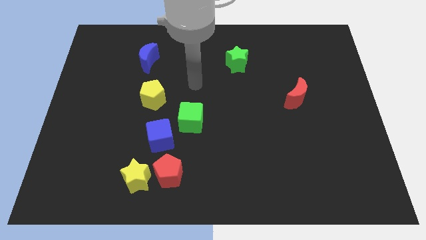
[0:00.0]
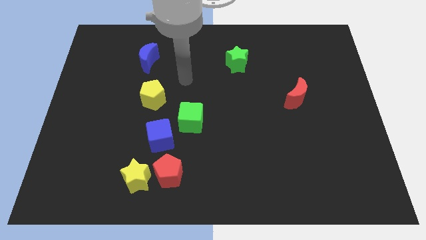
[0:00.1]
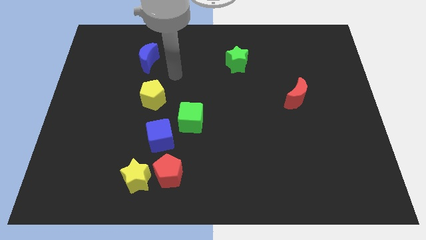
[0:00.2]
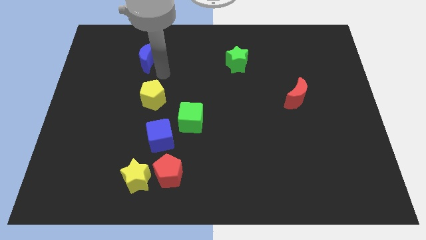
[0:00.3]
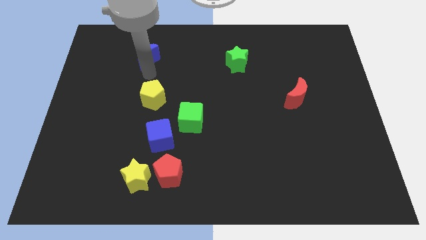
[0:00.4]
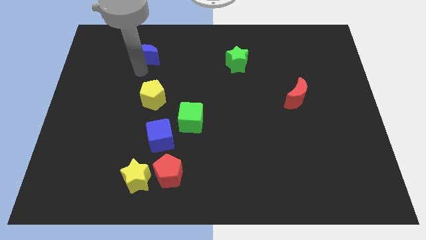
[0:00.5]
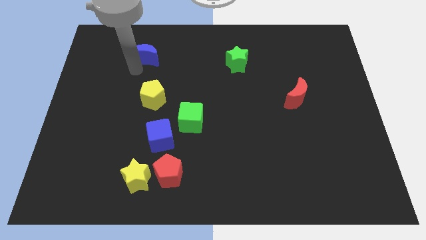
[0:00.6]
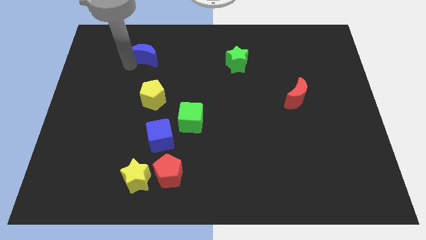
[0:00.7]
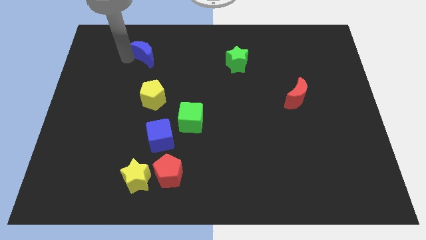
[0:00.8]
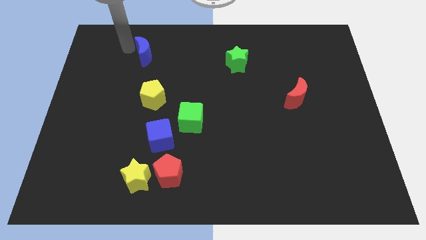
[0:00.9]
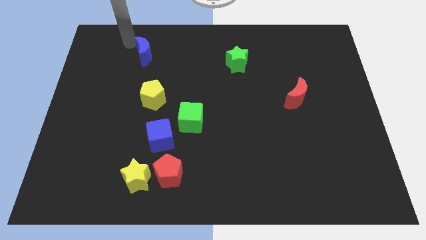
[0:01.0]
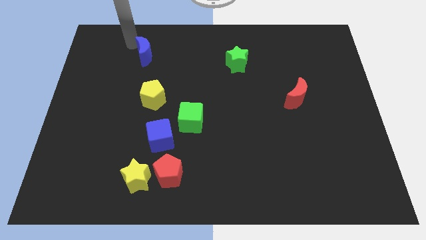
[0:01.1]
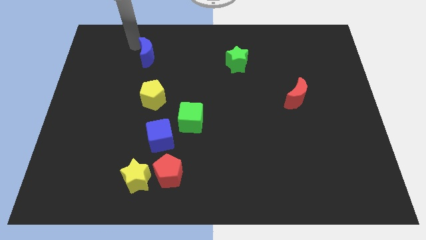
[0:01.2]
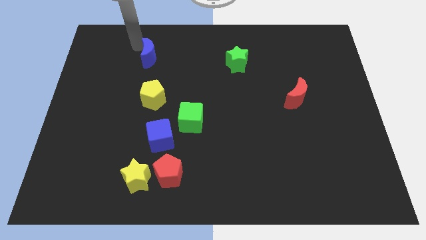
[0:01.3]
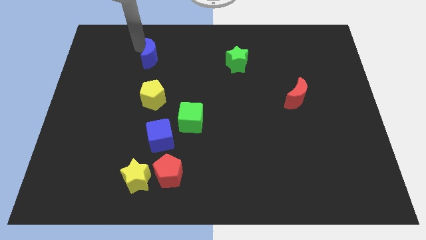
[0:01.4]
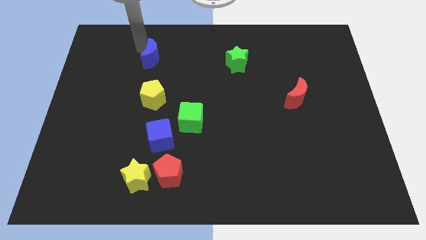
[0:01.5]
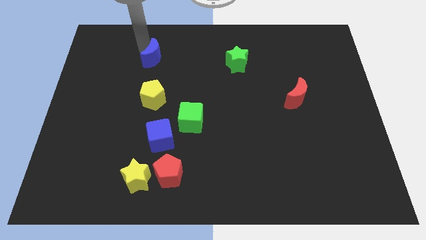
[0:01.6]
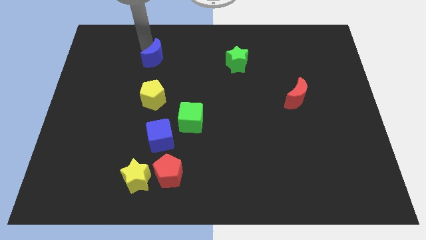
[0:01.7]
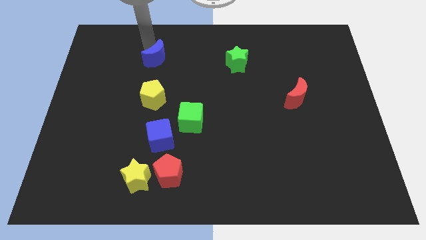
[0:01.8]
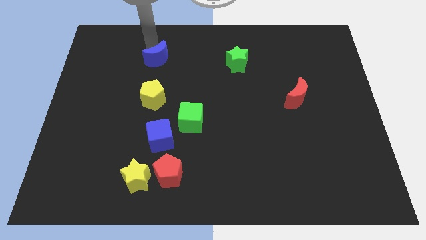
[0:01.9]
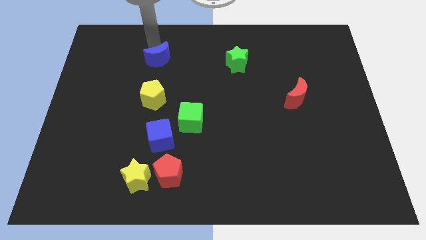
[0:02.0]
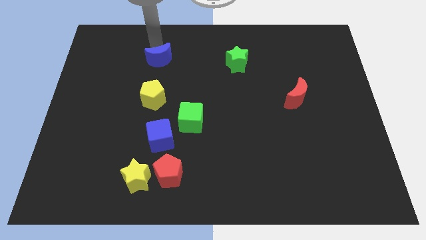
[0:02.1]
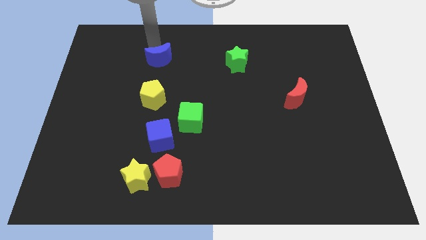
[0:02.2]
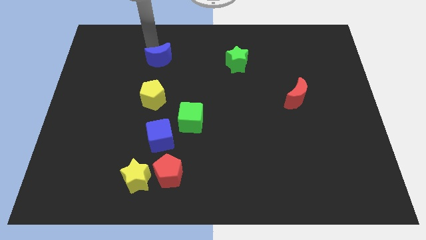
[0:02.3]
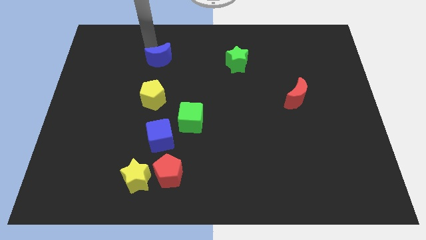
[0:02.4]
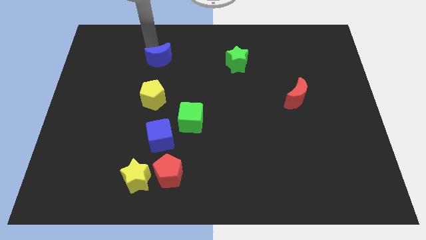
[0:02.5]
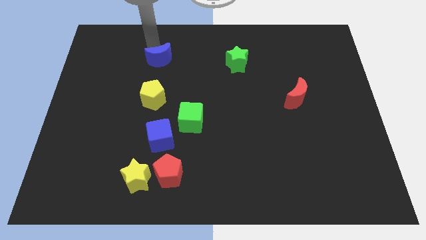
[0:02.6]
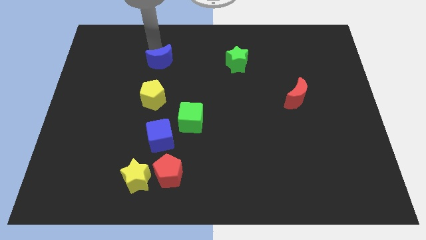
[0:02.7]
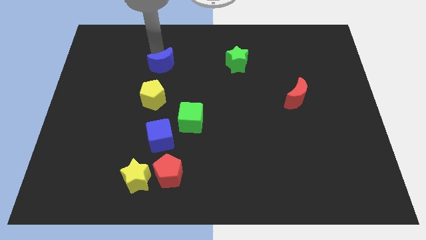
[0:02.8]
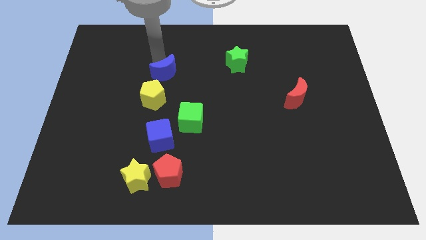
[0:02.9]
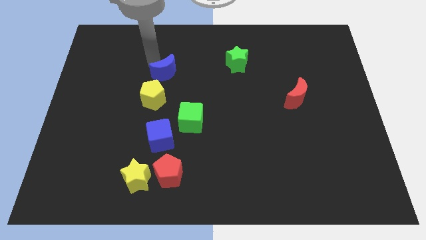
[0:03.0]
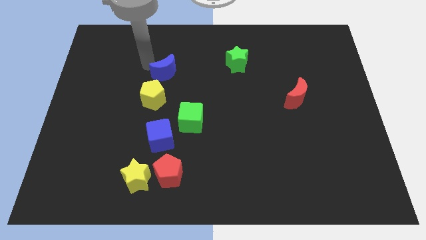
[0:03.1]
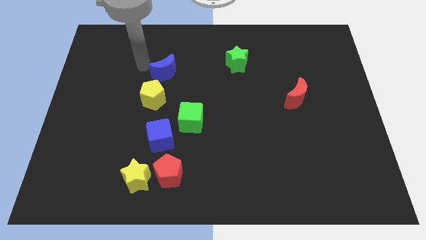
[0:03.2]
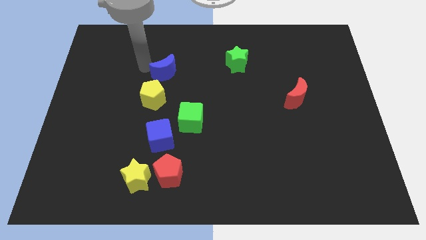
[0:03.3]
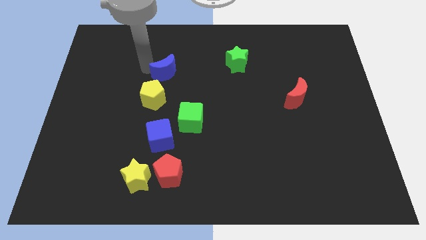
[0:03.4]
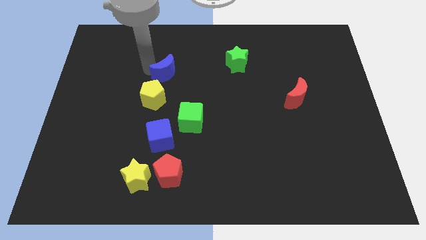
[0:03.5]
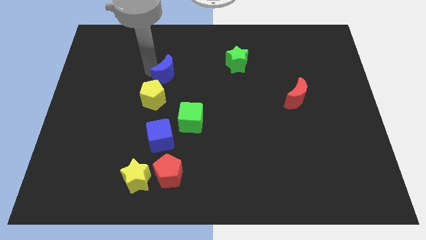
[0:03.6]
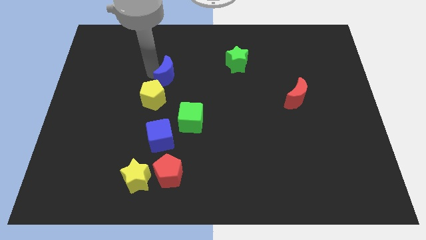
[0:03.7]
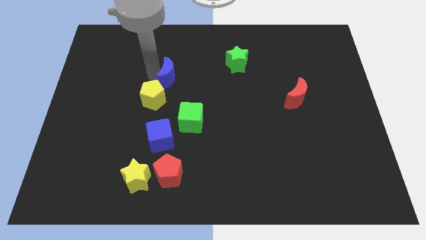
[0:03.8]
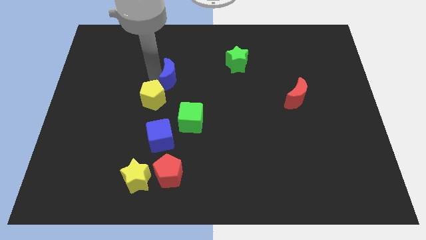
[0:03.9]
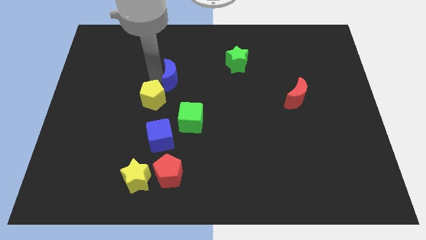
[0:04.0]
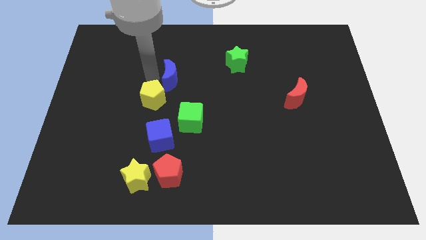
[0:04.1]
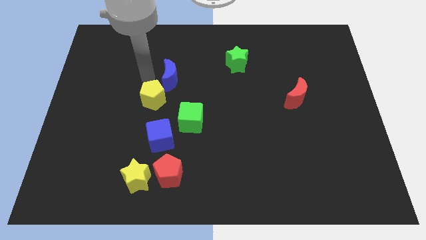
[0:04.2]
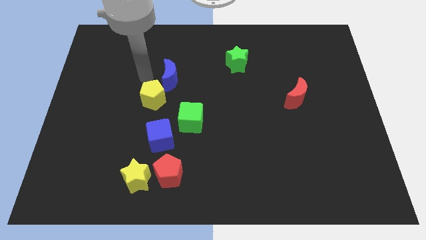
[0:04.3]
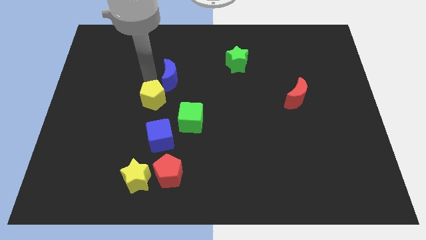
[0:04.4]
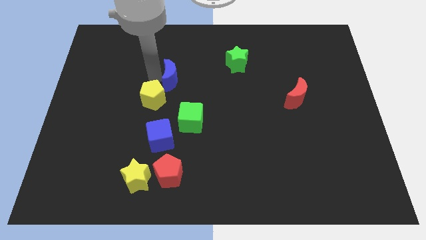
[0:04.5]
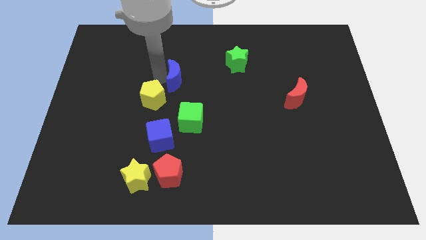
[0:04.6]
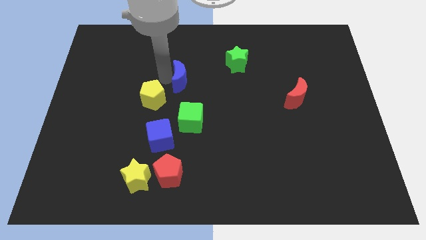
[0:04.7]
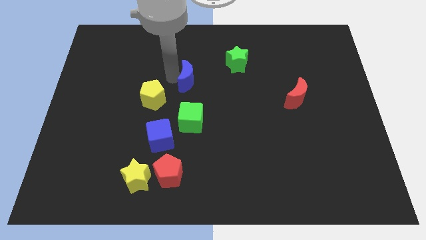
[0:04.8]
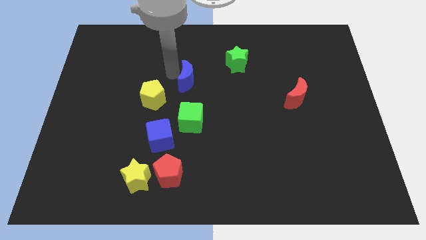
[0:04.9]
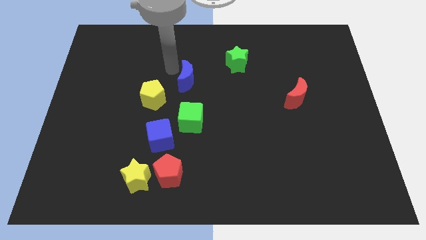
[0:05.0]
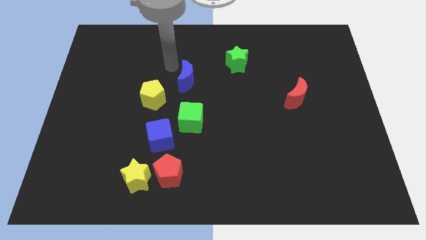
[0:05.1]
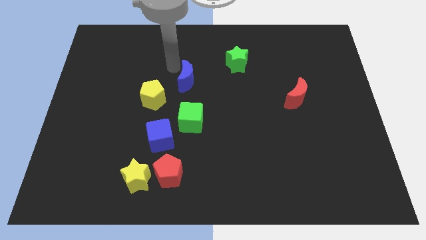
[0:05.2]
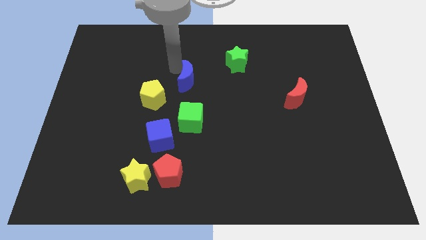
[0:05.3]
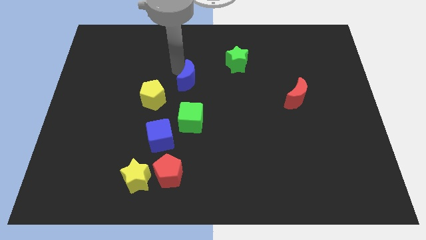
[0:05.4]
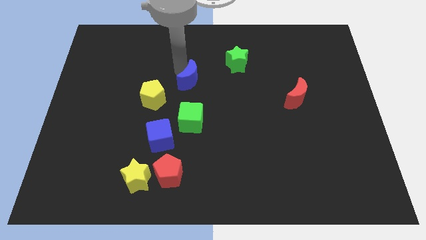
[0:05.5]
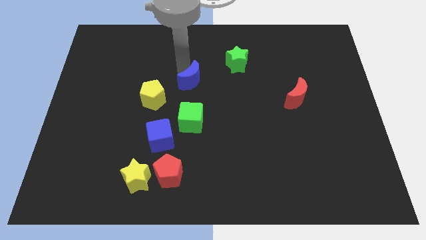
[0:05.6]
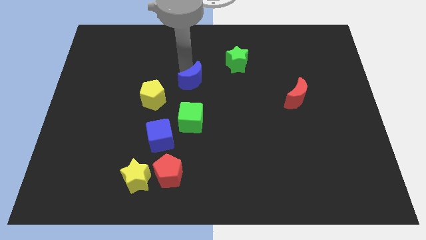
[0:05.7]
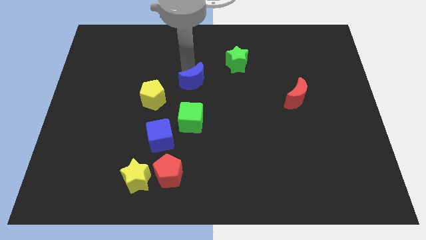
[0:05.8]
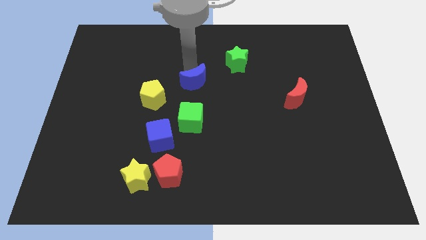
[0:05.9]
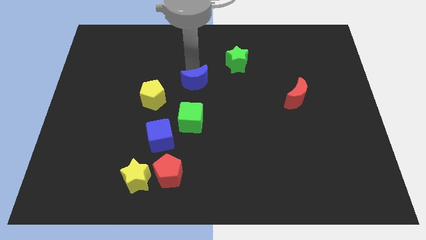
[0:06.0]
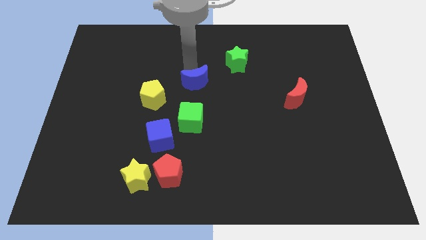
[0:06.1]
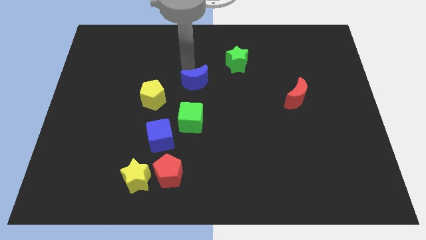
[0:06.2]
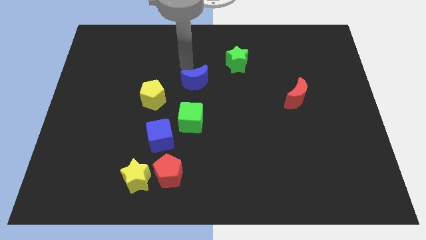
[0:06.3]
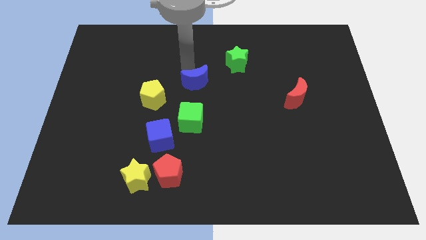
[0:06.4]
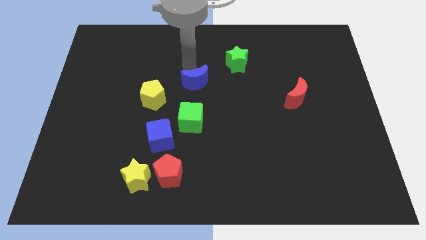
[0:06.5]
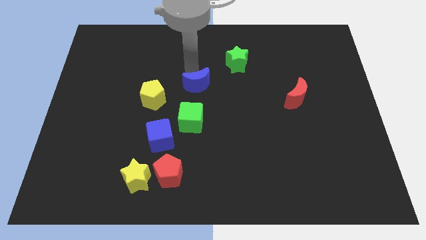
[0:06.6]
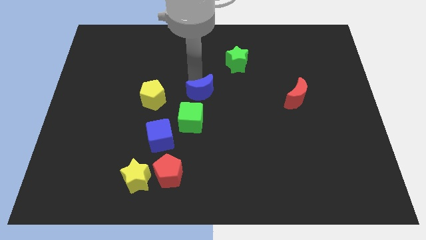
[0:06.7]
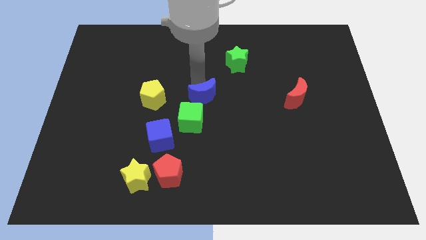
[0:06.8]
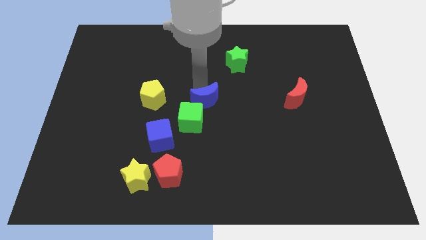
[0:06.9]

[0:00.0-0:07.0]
move the blue moon downwards and right diagonally

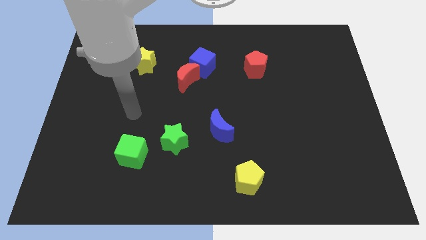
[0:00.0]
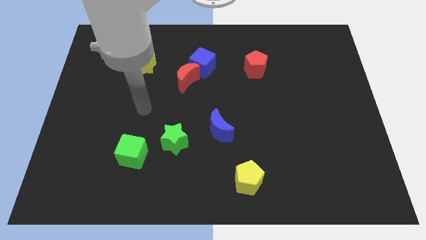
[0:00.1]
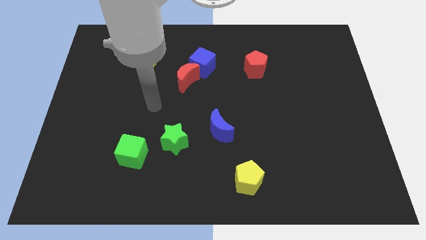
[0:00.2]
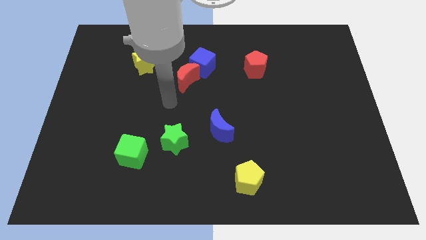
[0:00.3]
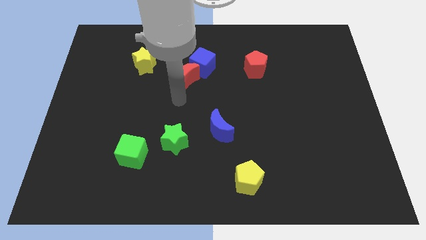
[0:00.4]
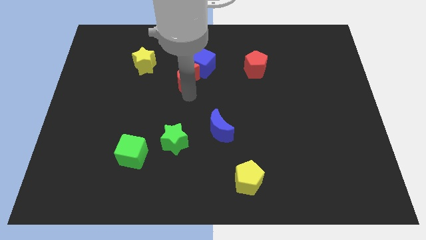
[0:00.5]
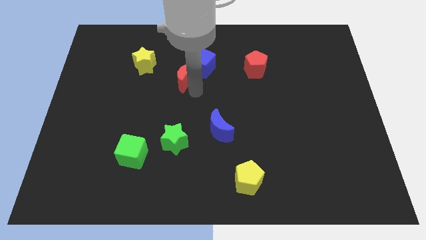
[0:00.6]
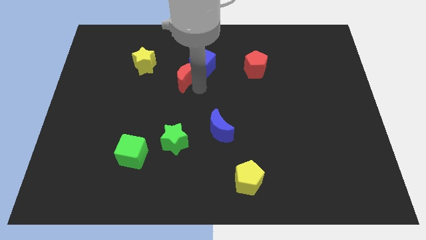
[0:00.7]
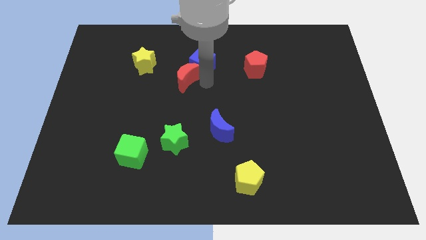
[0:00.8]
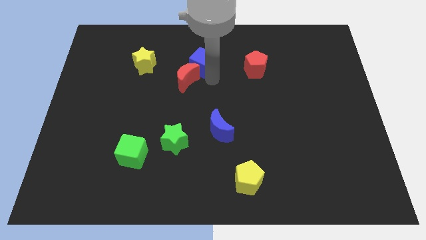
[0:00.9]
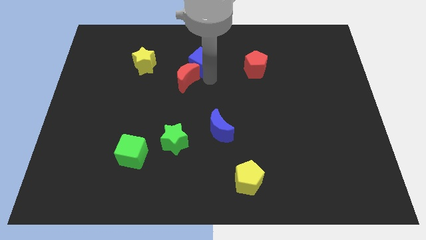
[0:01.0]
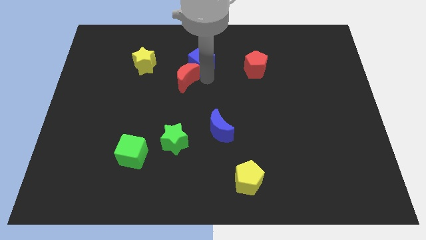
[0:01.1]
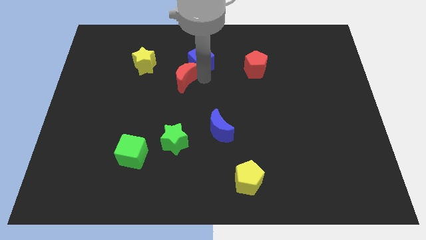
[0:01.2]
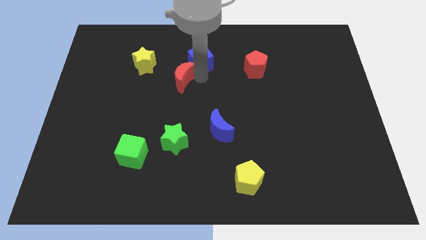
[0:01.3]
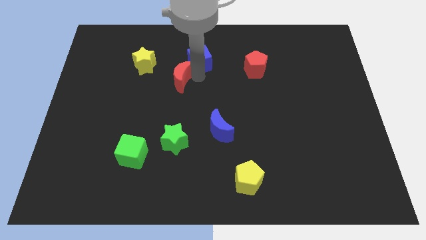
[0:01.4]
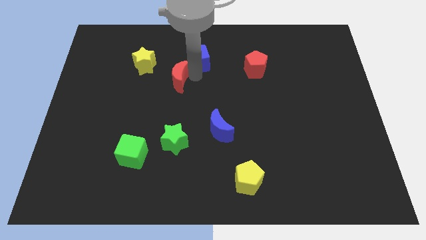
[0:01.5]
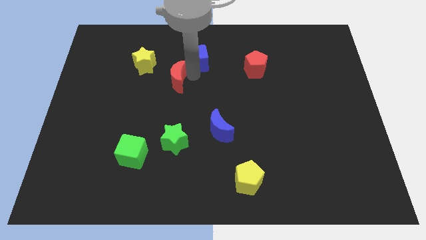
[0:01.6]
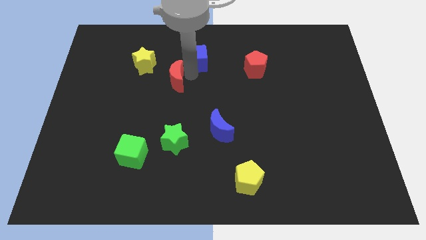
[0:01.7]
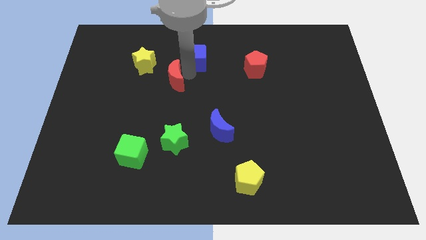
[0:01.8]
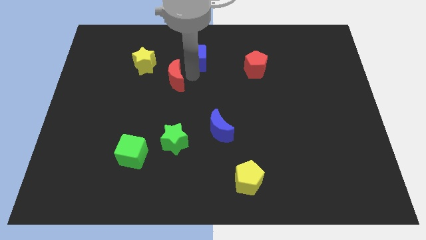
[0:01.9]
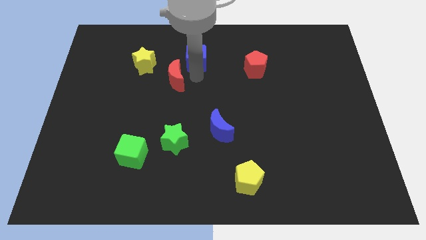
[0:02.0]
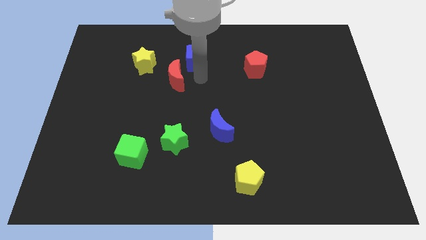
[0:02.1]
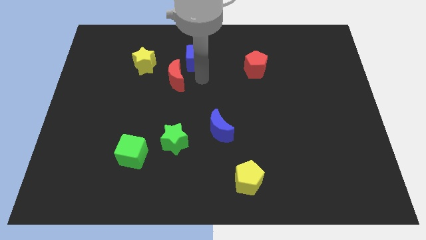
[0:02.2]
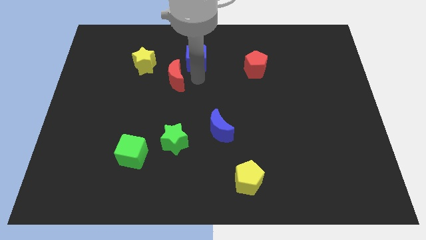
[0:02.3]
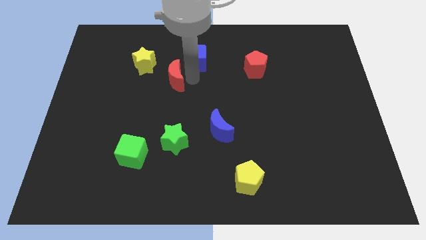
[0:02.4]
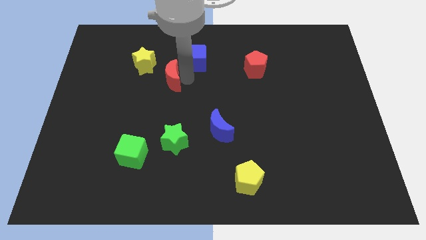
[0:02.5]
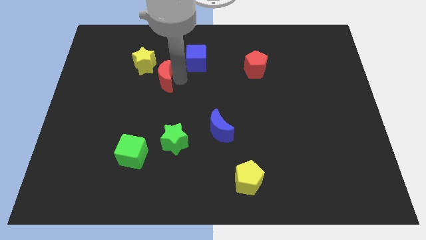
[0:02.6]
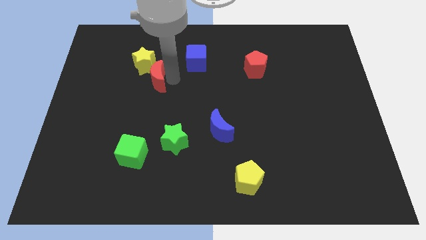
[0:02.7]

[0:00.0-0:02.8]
move the red moon to the left somewhat
